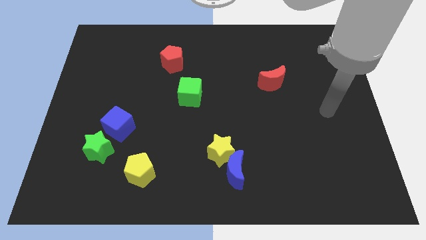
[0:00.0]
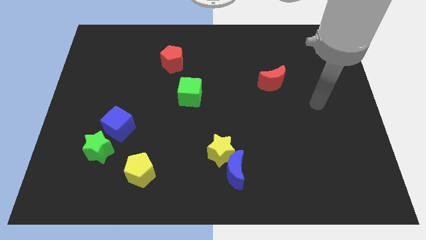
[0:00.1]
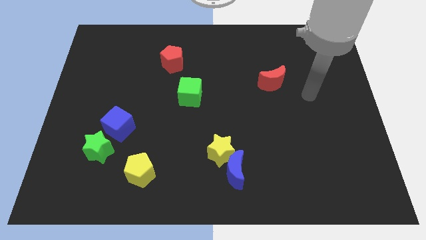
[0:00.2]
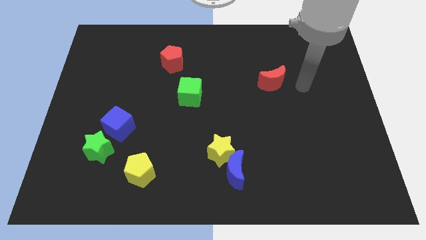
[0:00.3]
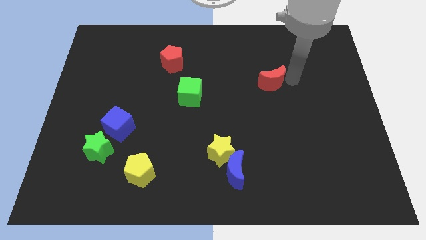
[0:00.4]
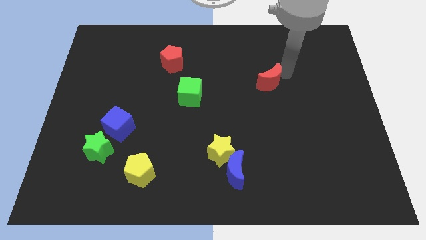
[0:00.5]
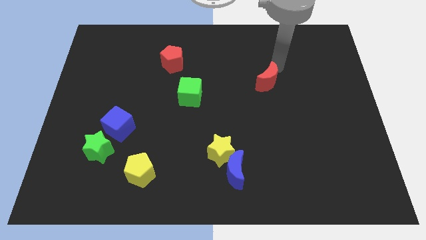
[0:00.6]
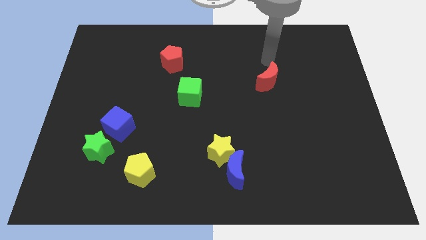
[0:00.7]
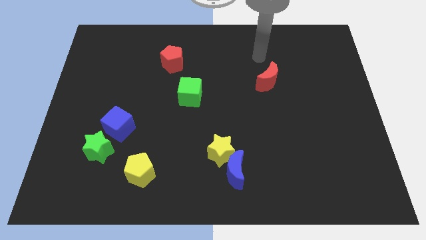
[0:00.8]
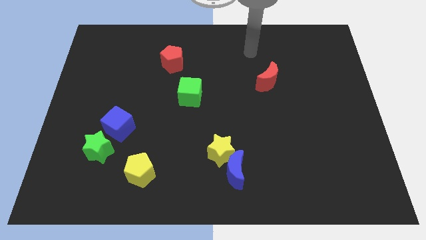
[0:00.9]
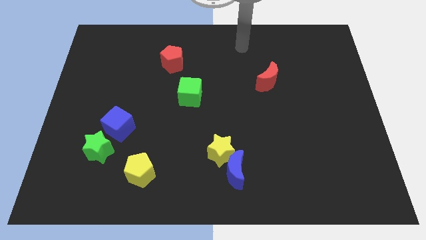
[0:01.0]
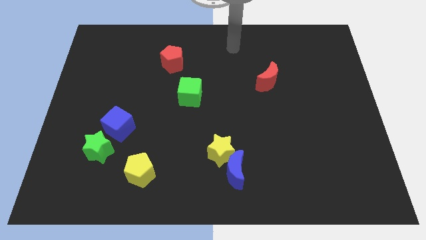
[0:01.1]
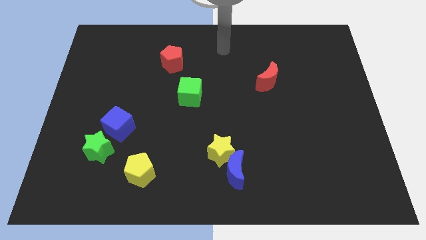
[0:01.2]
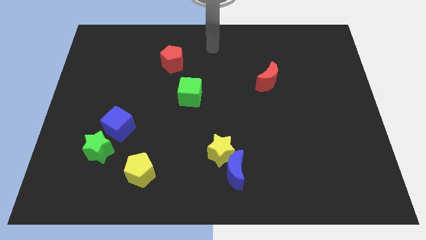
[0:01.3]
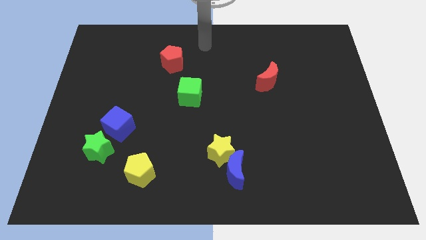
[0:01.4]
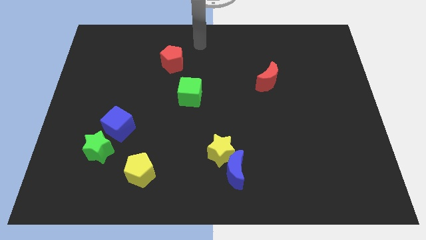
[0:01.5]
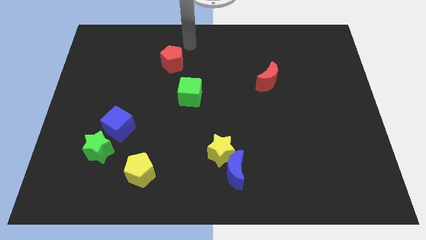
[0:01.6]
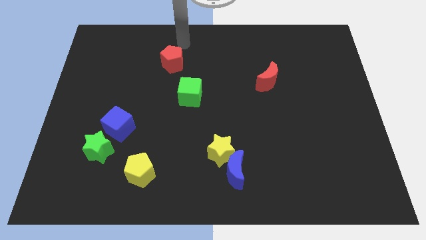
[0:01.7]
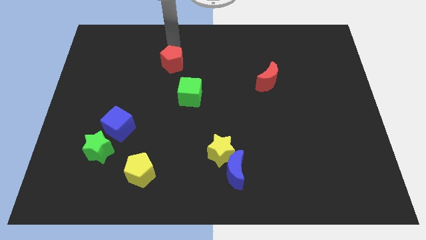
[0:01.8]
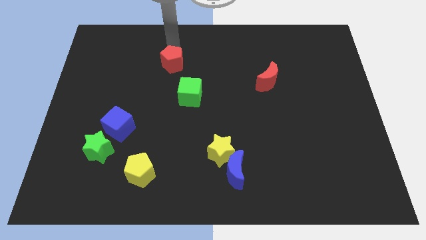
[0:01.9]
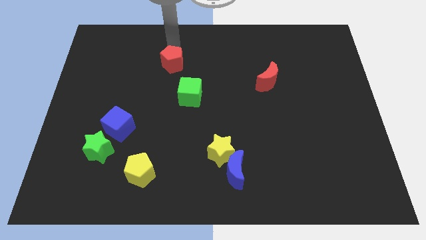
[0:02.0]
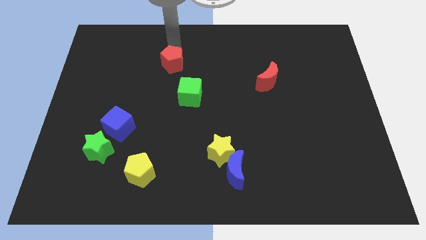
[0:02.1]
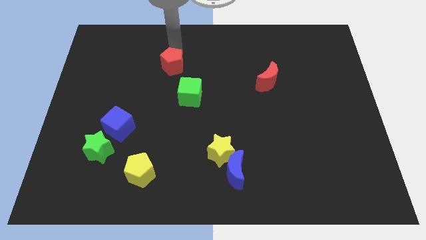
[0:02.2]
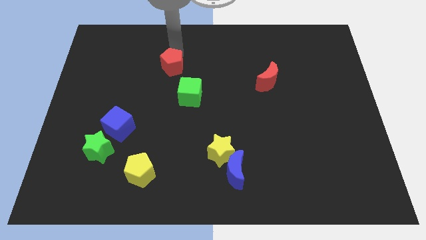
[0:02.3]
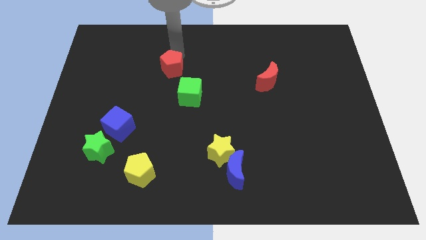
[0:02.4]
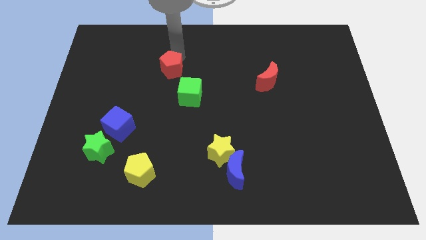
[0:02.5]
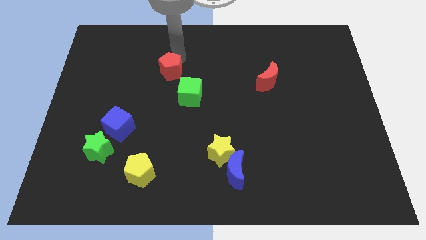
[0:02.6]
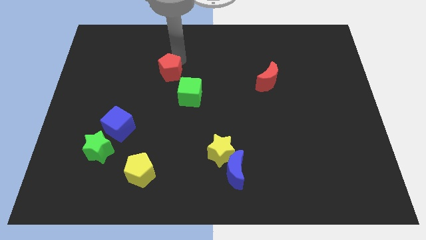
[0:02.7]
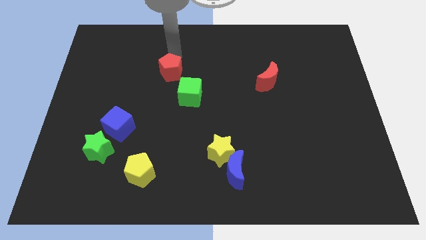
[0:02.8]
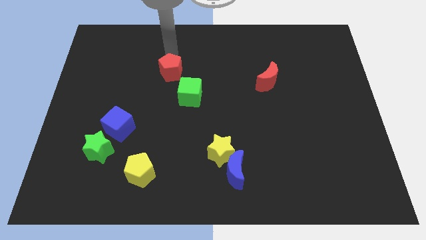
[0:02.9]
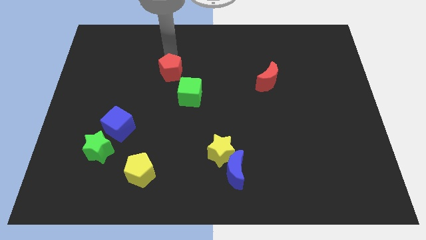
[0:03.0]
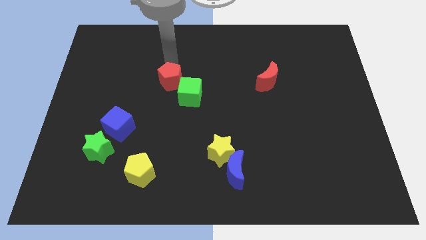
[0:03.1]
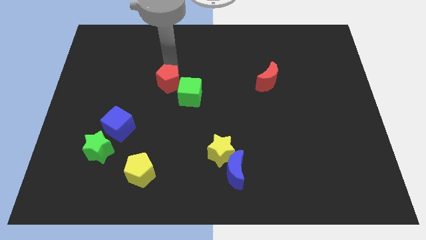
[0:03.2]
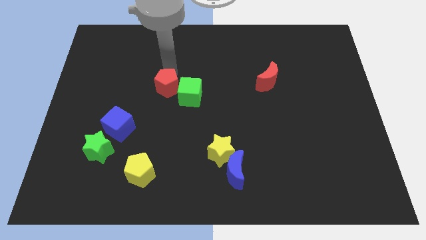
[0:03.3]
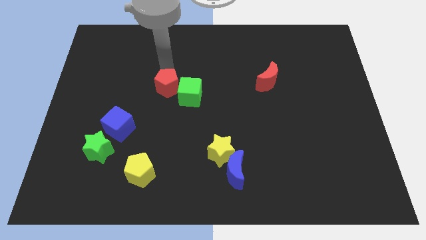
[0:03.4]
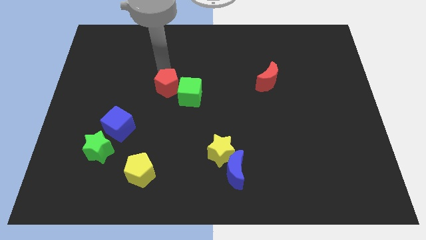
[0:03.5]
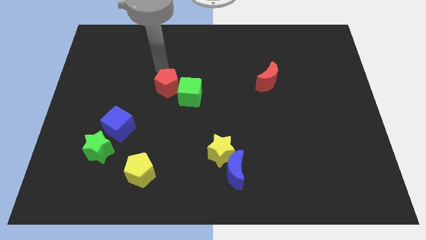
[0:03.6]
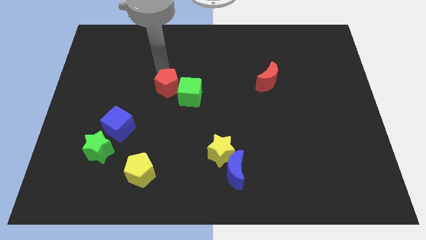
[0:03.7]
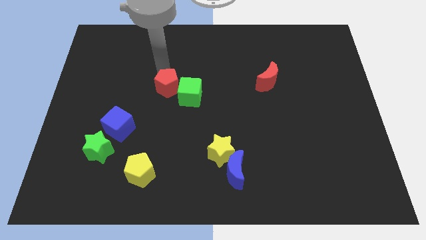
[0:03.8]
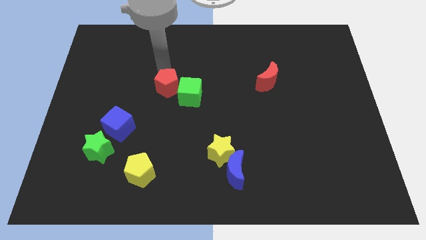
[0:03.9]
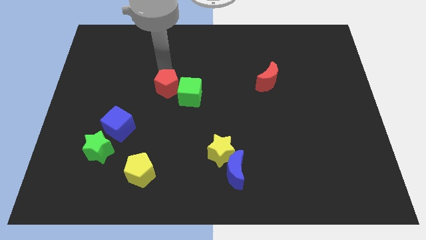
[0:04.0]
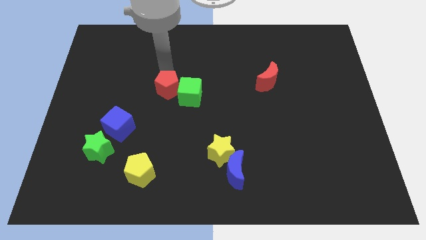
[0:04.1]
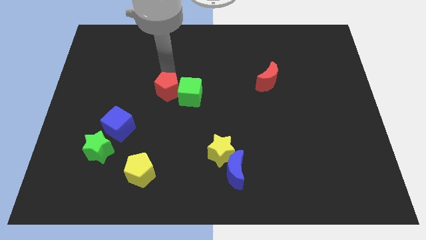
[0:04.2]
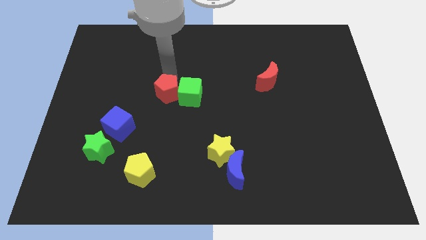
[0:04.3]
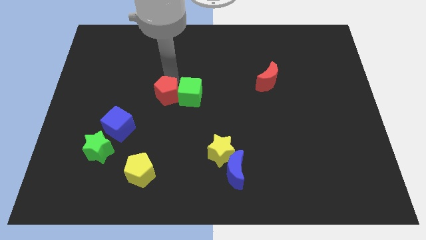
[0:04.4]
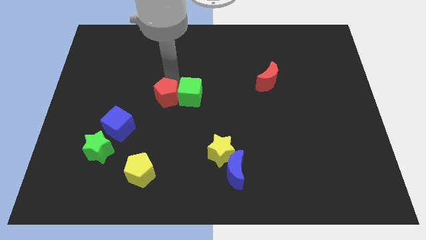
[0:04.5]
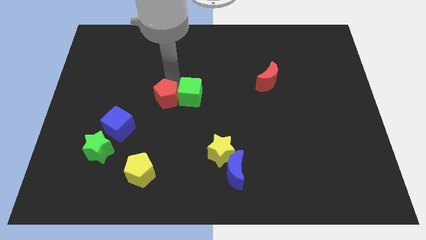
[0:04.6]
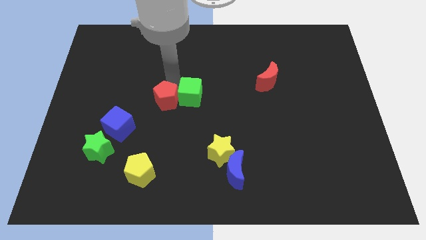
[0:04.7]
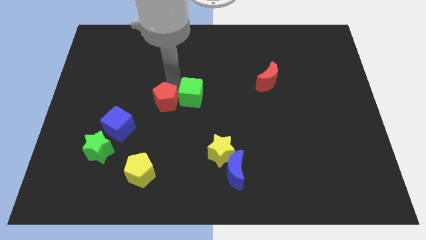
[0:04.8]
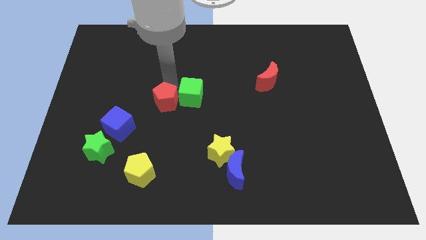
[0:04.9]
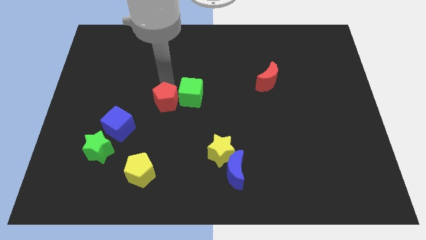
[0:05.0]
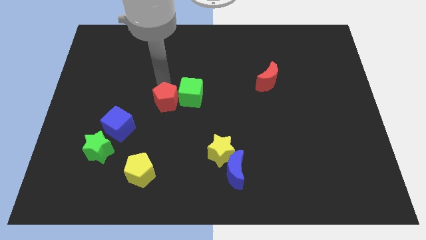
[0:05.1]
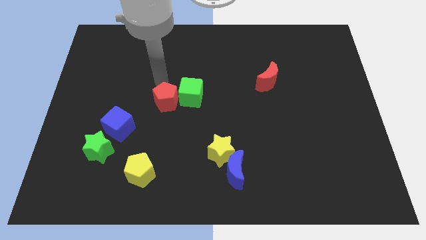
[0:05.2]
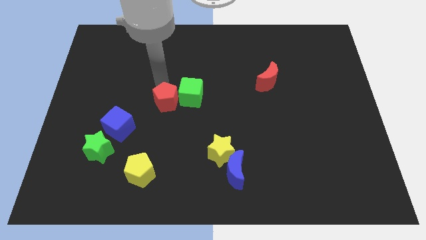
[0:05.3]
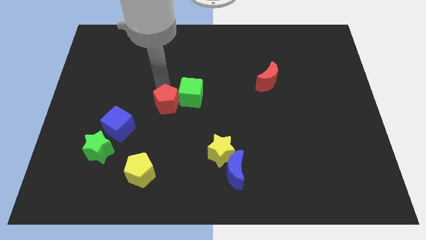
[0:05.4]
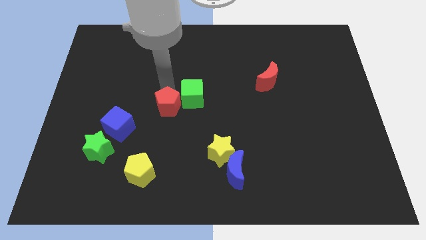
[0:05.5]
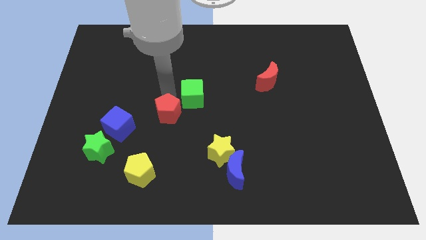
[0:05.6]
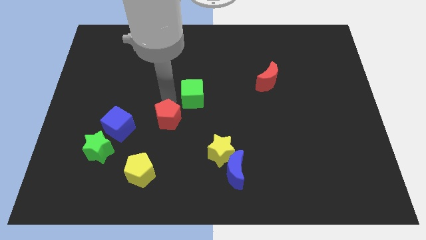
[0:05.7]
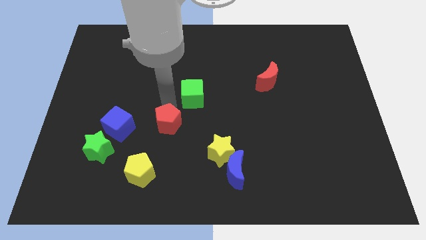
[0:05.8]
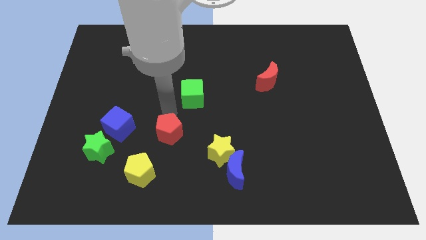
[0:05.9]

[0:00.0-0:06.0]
move the red pentagon down

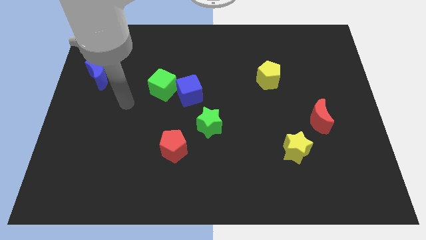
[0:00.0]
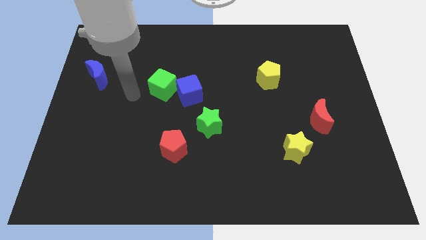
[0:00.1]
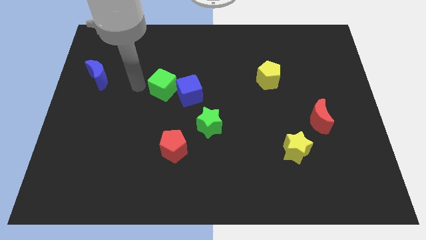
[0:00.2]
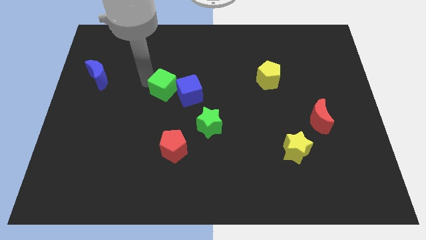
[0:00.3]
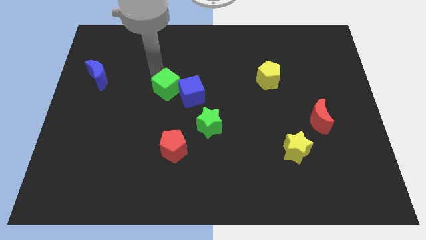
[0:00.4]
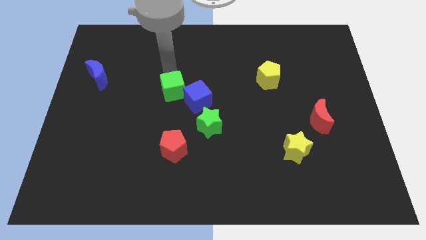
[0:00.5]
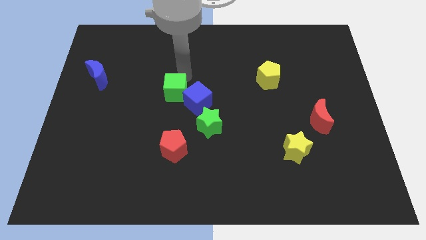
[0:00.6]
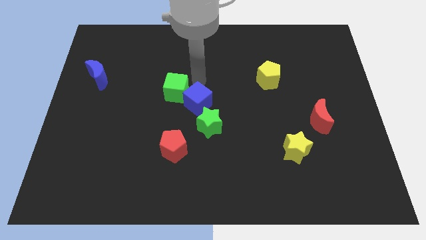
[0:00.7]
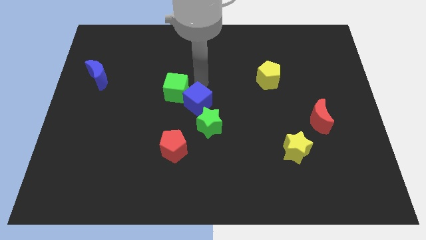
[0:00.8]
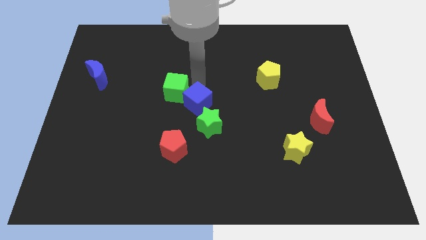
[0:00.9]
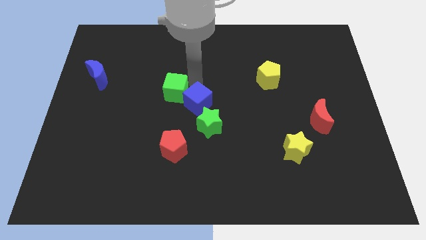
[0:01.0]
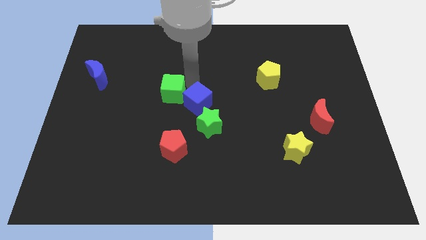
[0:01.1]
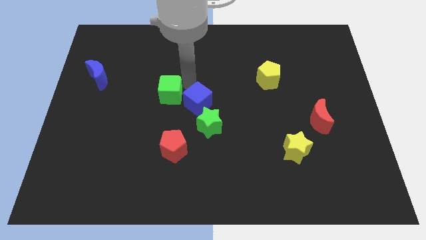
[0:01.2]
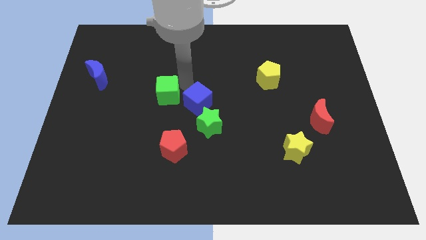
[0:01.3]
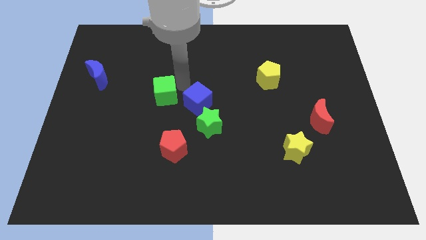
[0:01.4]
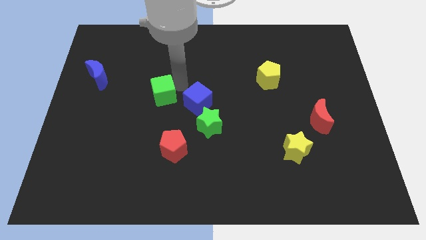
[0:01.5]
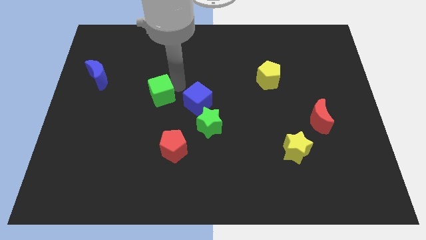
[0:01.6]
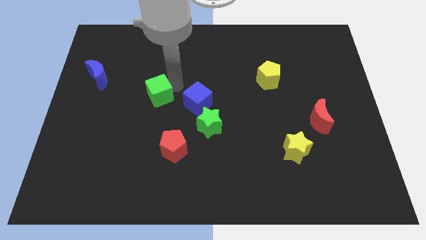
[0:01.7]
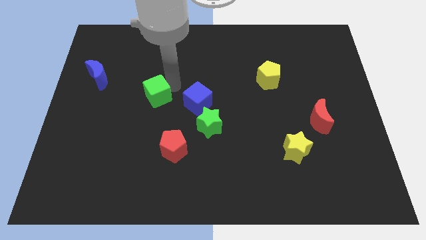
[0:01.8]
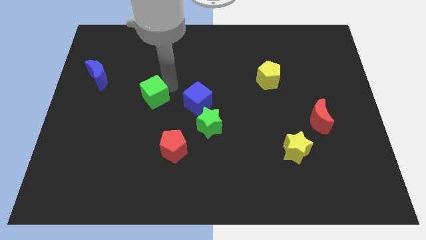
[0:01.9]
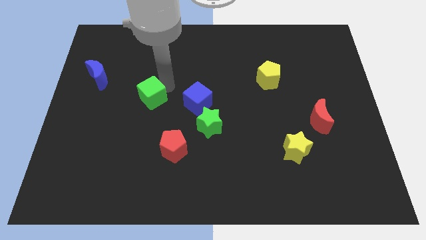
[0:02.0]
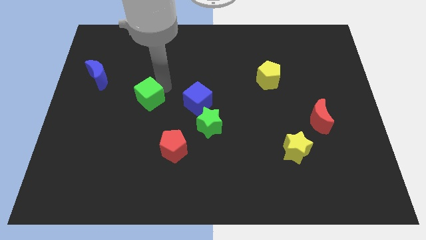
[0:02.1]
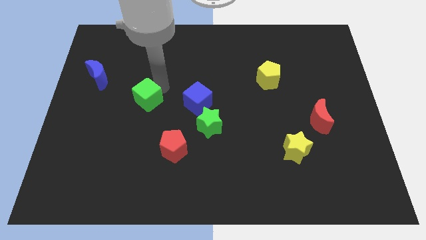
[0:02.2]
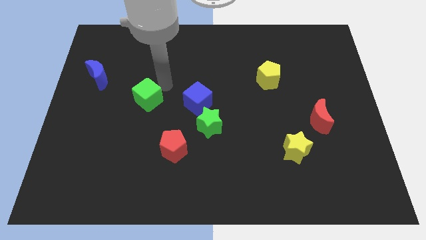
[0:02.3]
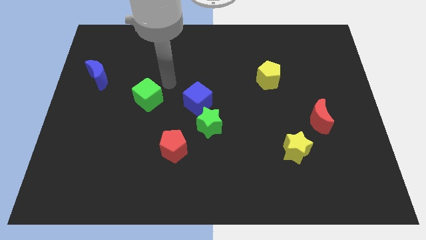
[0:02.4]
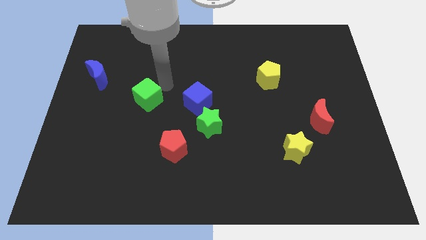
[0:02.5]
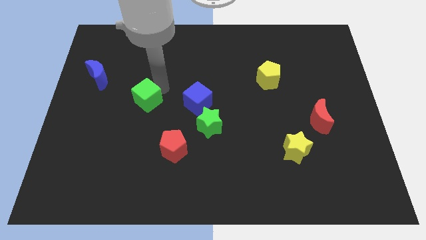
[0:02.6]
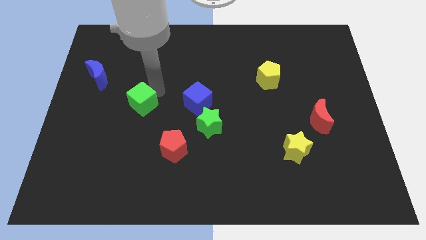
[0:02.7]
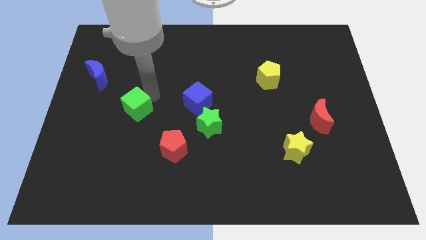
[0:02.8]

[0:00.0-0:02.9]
move the green cube a little downwards and to the left
